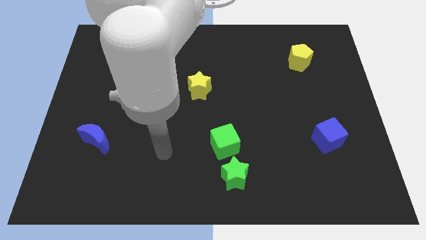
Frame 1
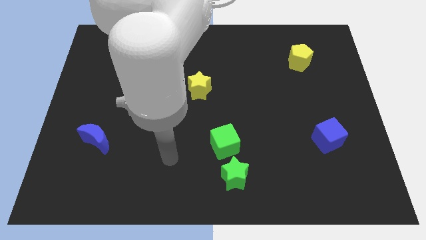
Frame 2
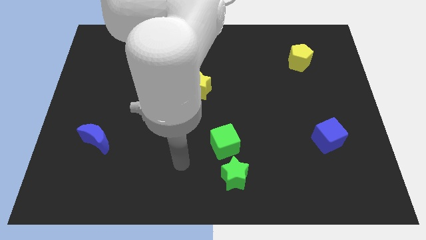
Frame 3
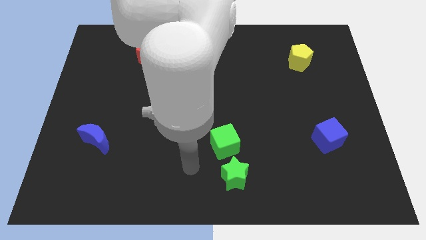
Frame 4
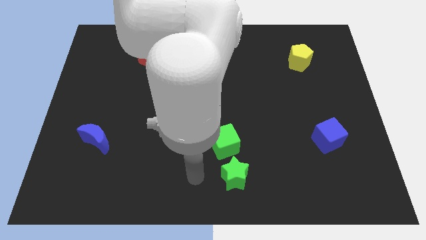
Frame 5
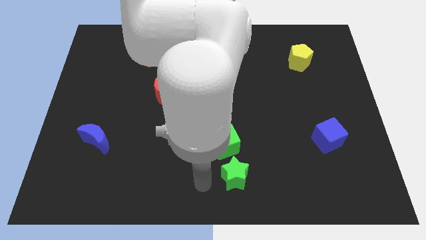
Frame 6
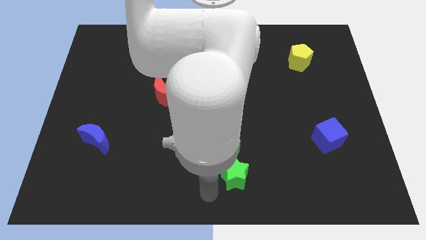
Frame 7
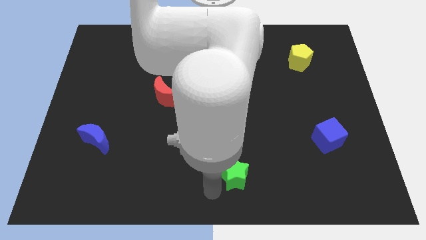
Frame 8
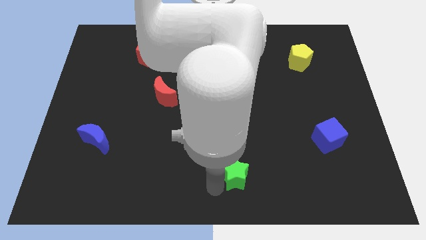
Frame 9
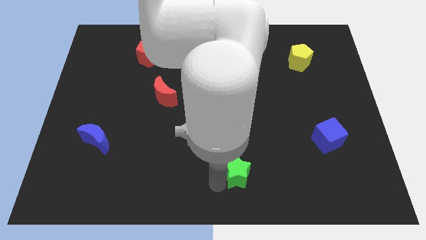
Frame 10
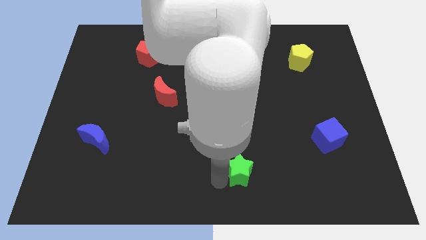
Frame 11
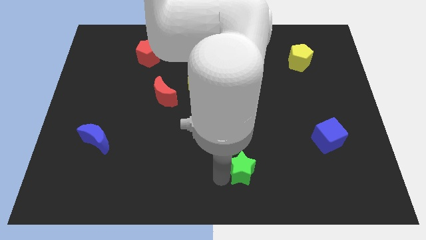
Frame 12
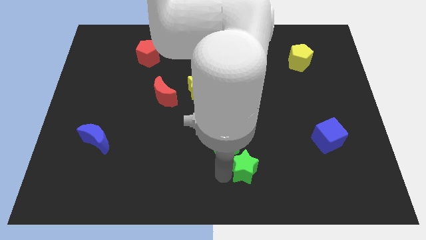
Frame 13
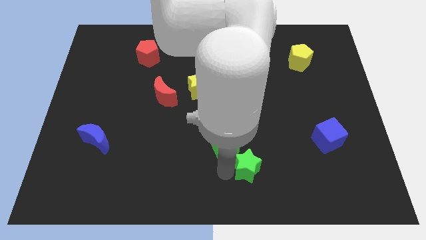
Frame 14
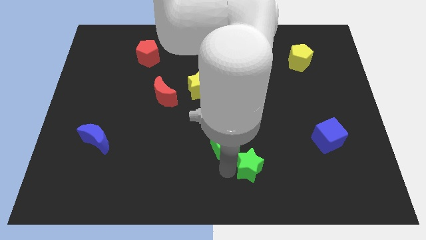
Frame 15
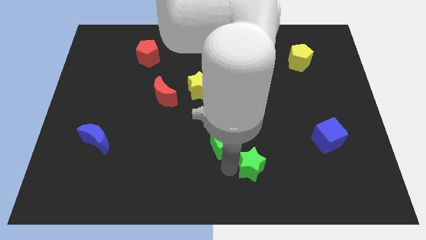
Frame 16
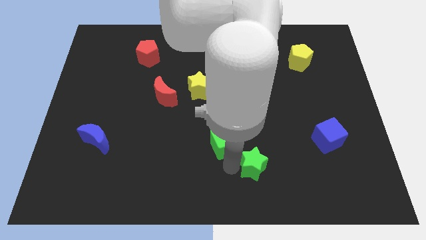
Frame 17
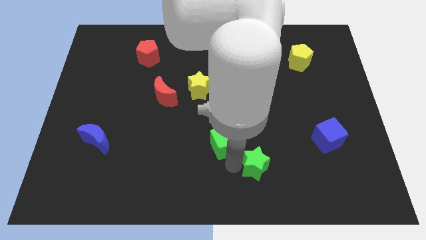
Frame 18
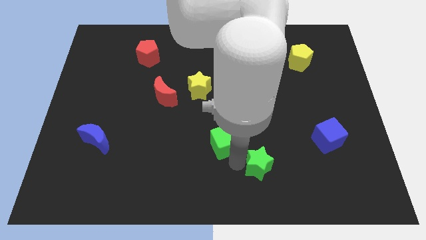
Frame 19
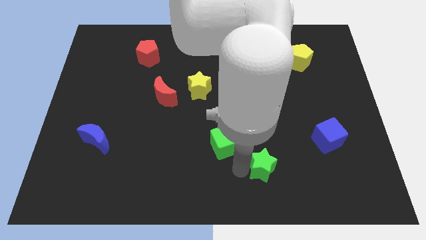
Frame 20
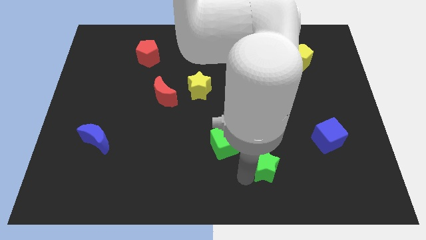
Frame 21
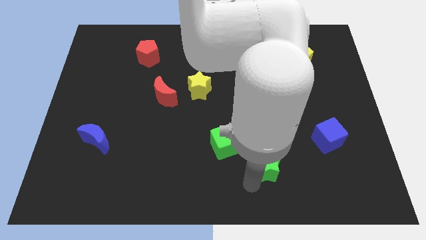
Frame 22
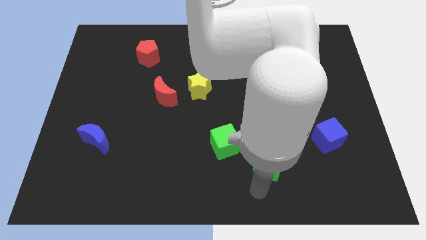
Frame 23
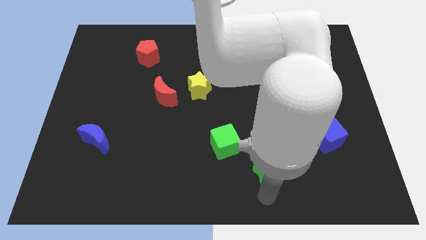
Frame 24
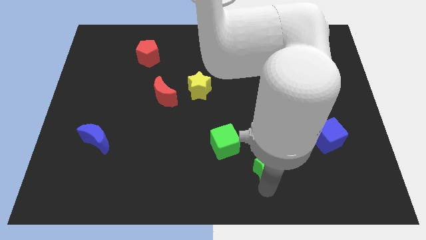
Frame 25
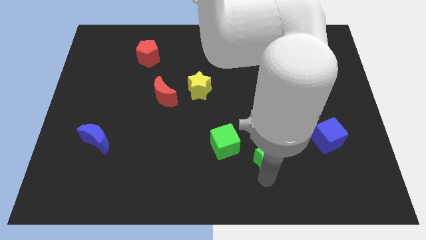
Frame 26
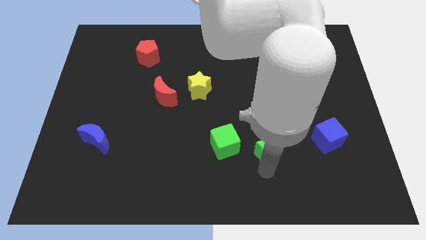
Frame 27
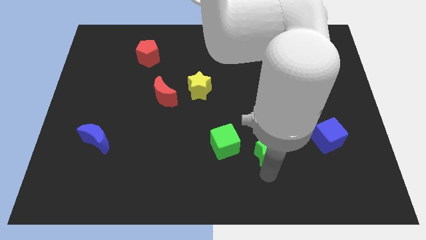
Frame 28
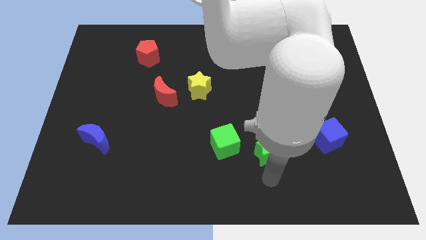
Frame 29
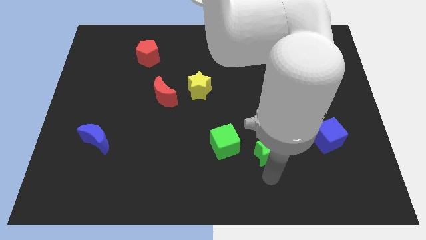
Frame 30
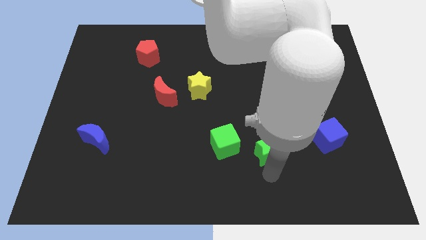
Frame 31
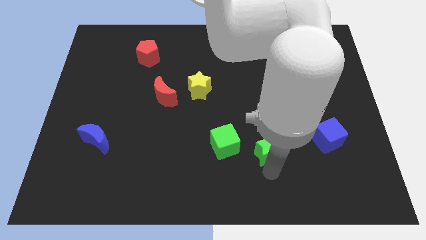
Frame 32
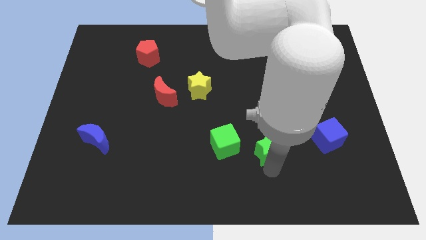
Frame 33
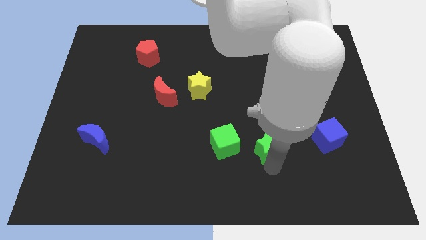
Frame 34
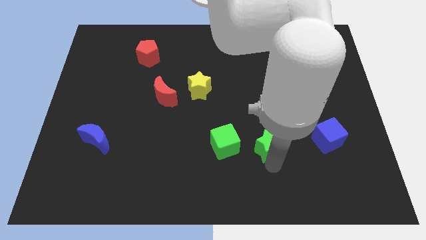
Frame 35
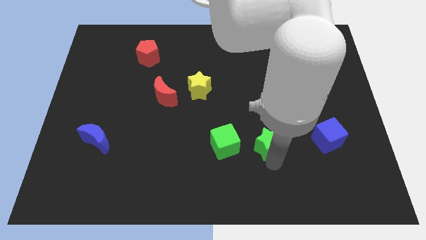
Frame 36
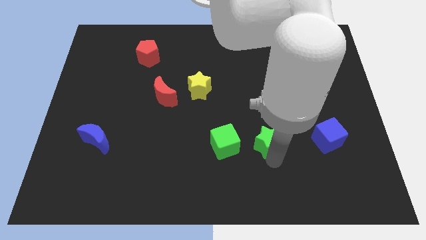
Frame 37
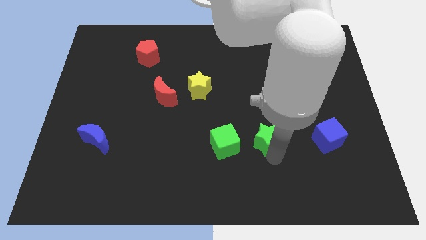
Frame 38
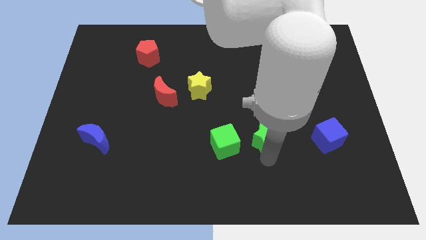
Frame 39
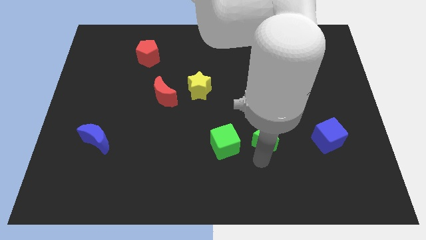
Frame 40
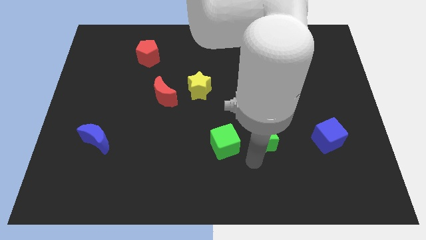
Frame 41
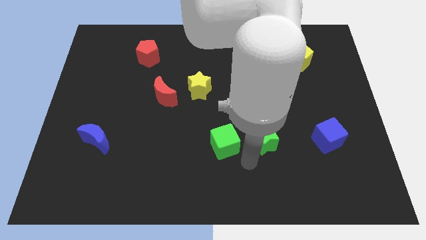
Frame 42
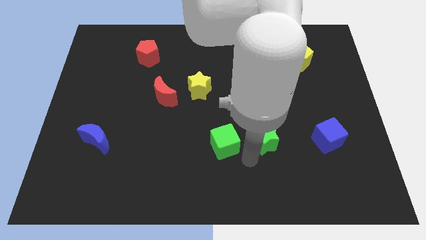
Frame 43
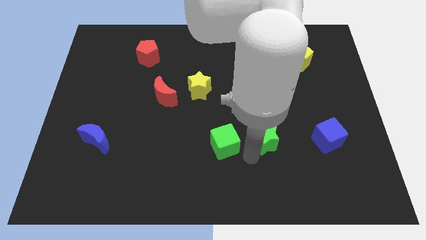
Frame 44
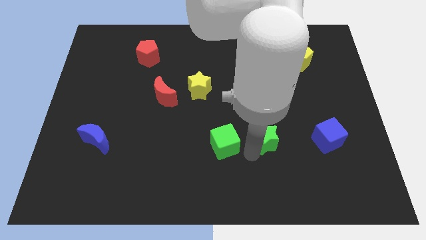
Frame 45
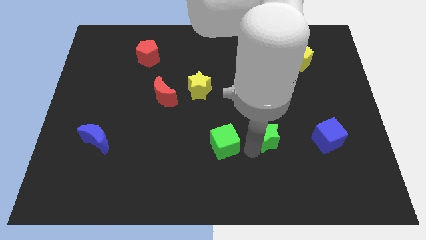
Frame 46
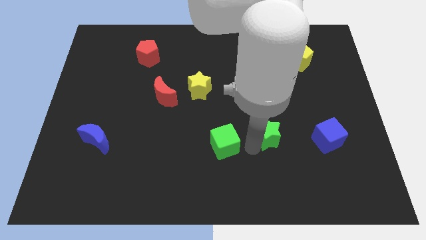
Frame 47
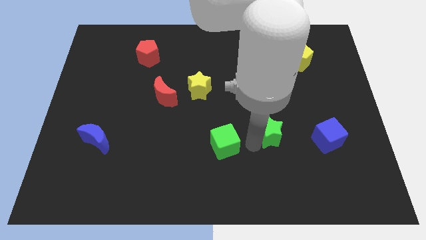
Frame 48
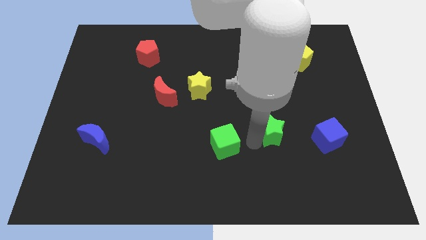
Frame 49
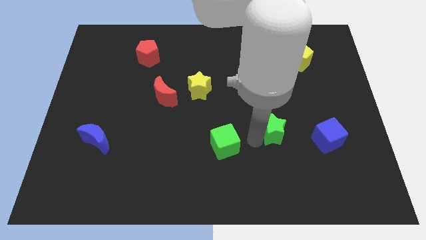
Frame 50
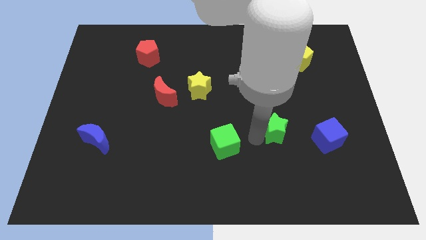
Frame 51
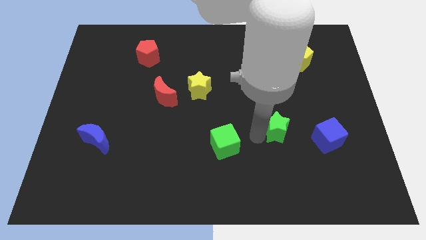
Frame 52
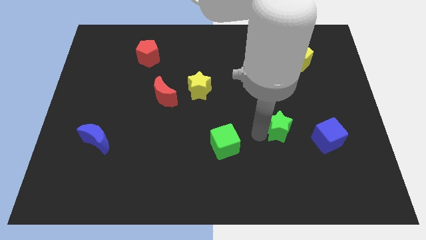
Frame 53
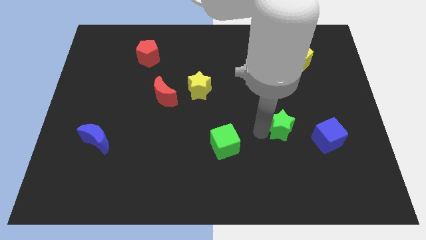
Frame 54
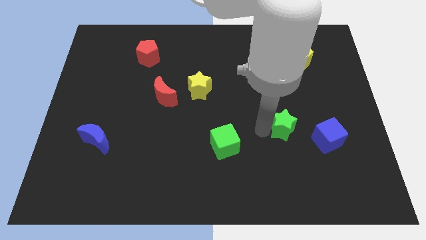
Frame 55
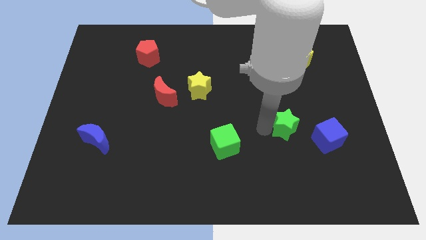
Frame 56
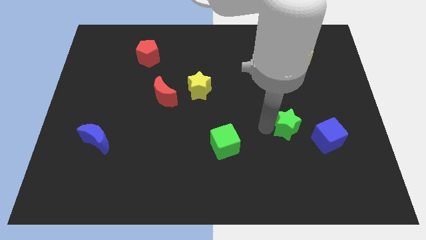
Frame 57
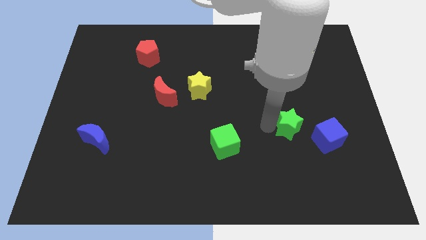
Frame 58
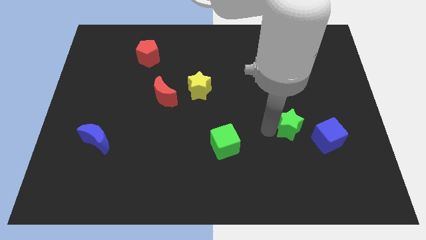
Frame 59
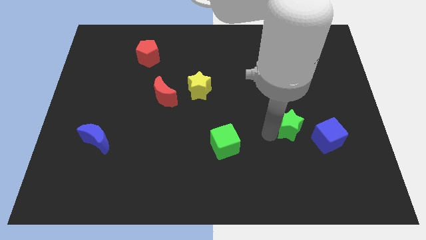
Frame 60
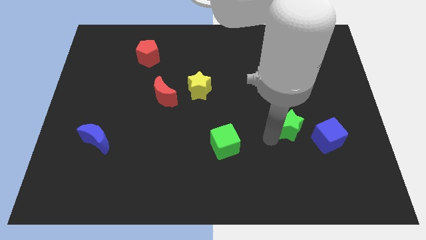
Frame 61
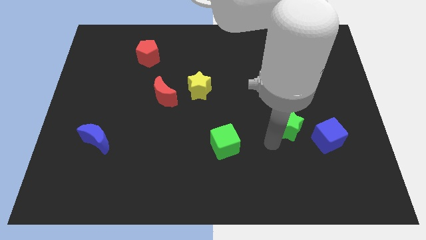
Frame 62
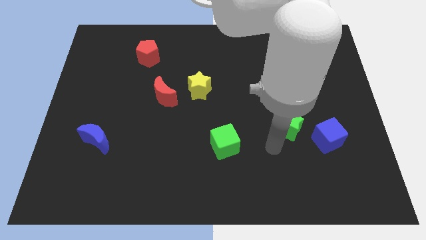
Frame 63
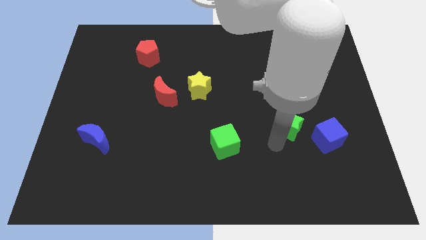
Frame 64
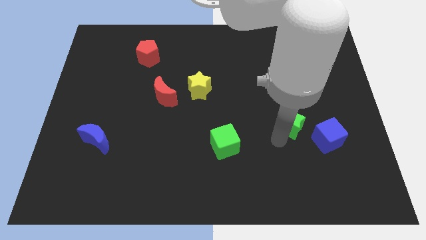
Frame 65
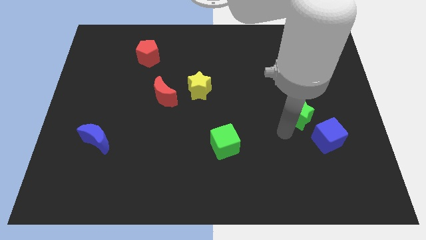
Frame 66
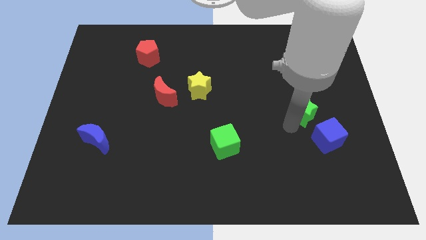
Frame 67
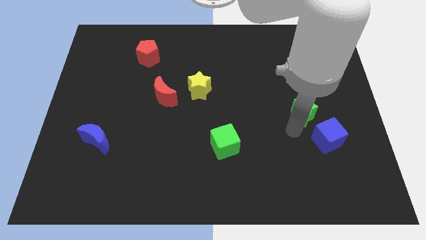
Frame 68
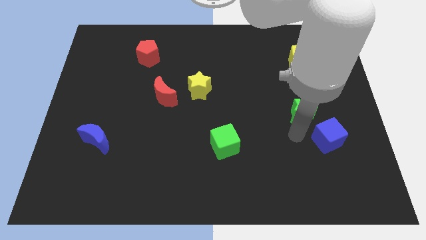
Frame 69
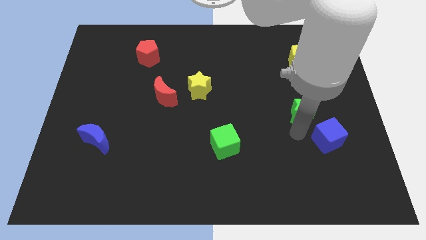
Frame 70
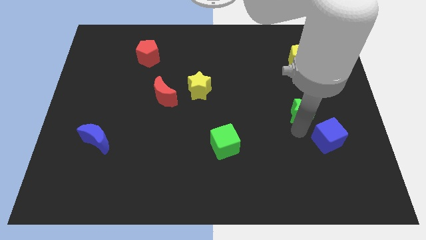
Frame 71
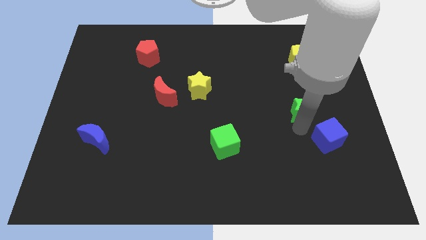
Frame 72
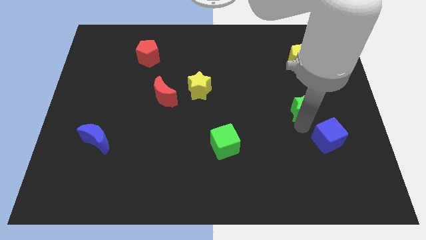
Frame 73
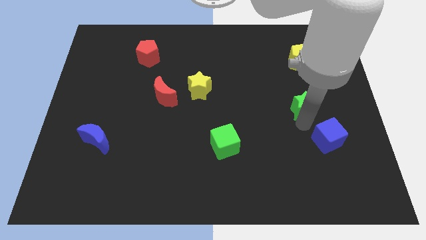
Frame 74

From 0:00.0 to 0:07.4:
slide the green star to the bottom side of the yellow pentagon
